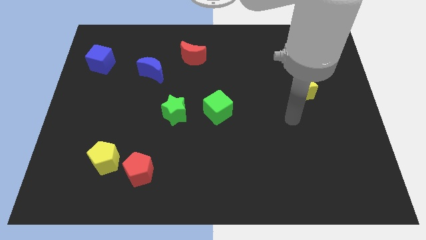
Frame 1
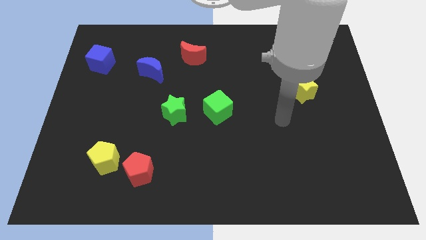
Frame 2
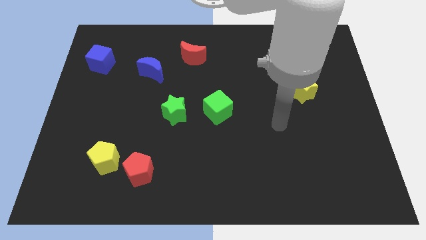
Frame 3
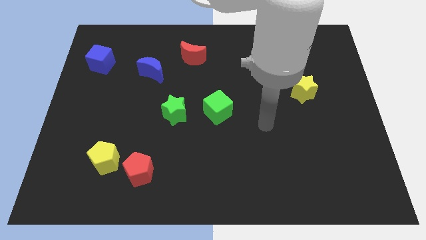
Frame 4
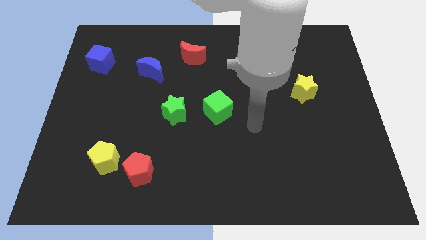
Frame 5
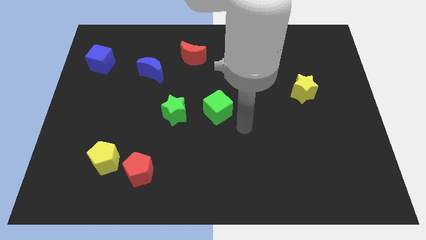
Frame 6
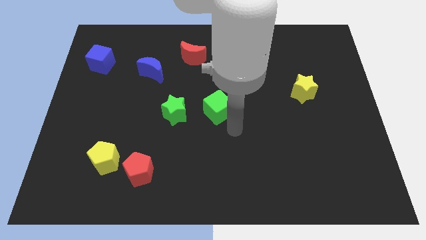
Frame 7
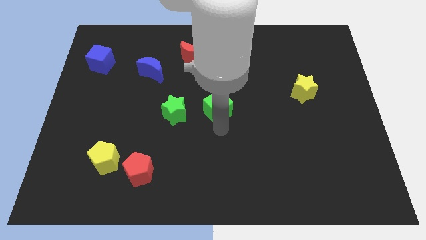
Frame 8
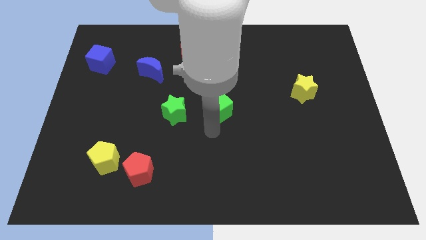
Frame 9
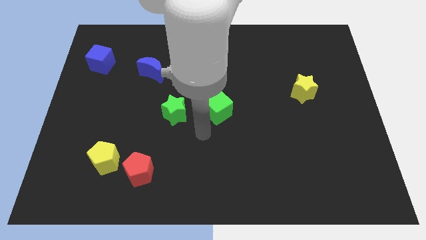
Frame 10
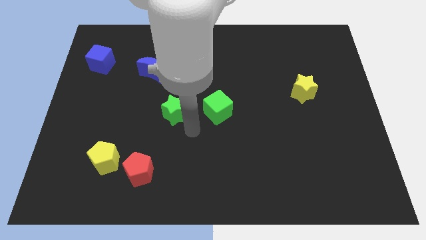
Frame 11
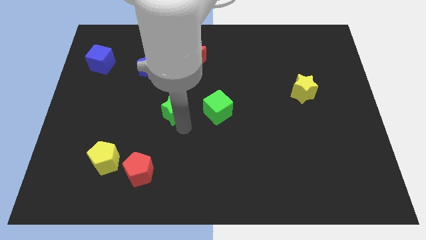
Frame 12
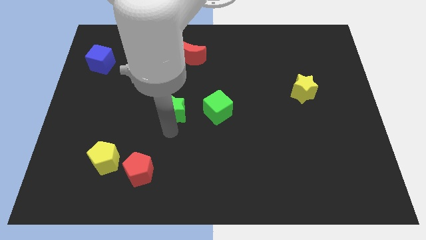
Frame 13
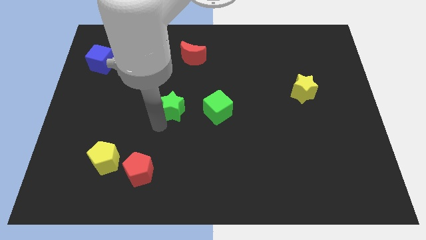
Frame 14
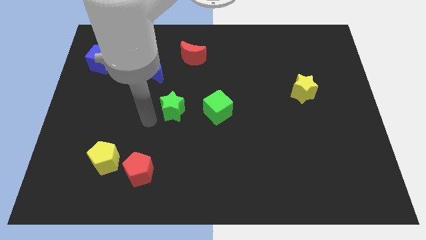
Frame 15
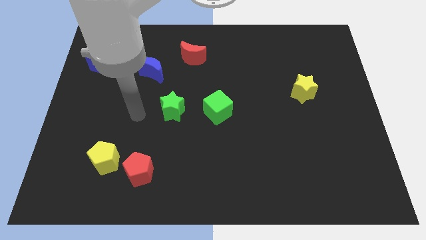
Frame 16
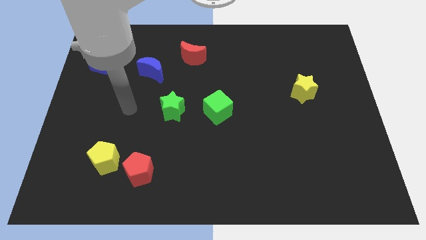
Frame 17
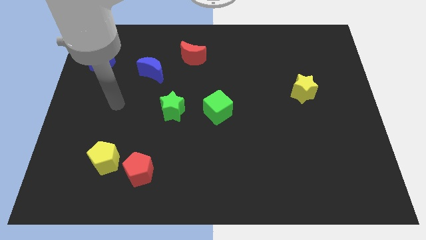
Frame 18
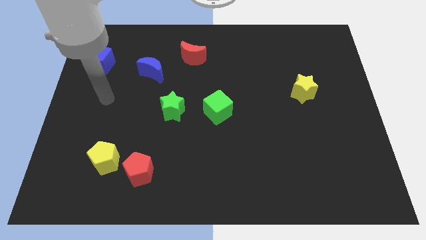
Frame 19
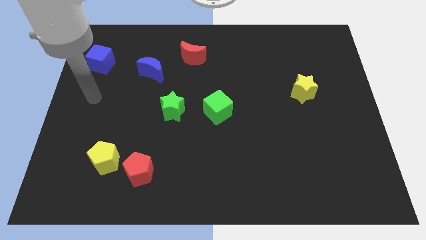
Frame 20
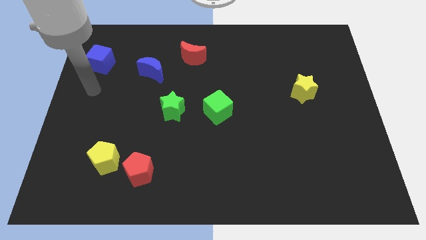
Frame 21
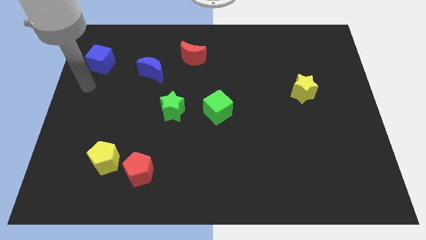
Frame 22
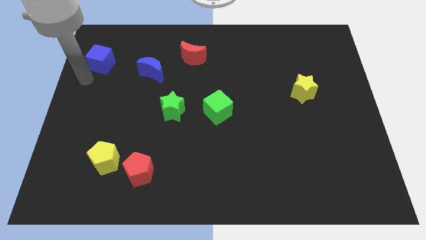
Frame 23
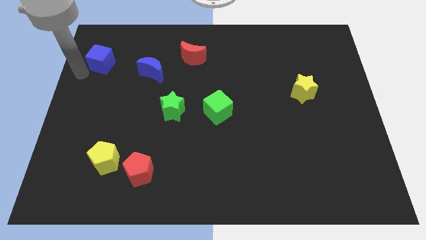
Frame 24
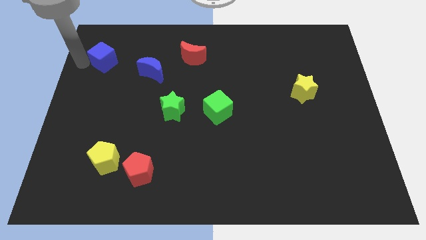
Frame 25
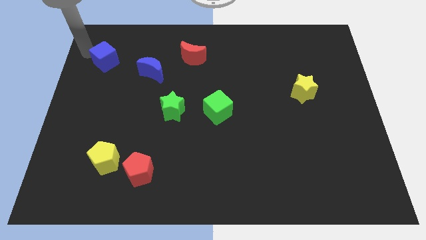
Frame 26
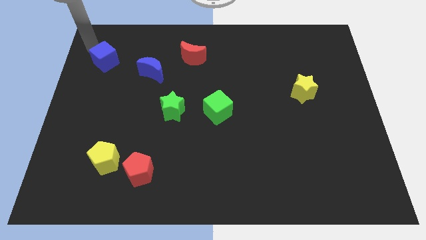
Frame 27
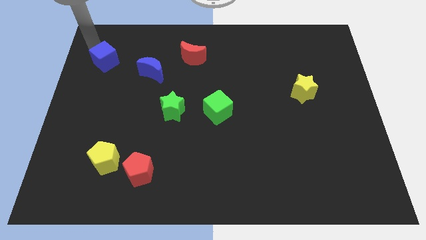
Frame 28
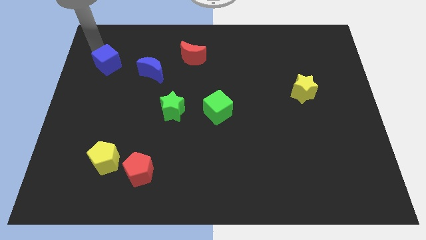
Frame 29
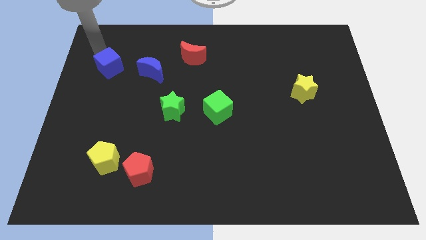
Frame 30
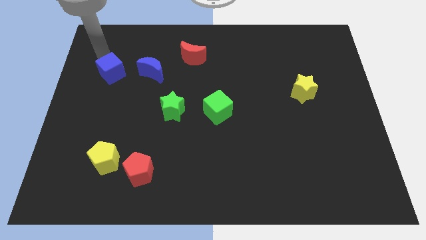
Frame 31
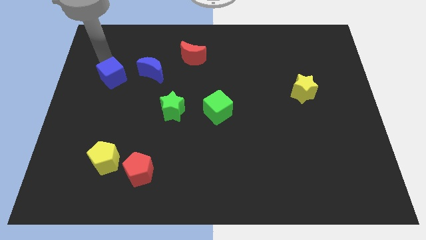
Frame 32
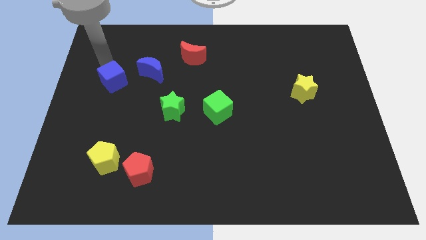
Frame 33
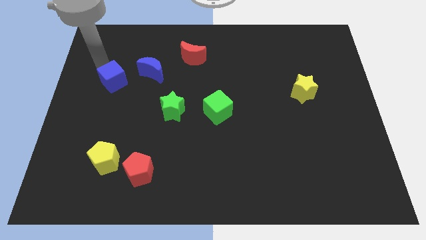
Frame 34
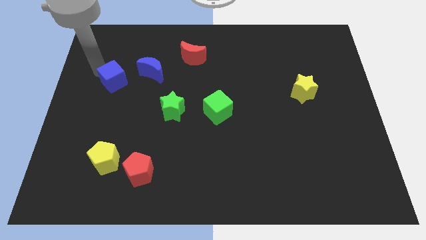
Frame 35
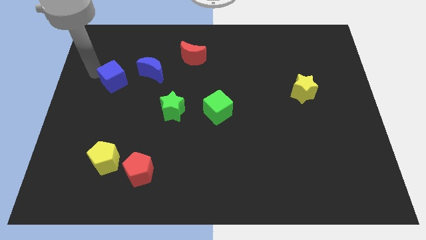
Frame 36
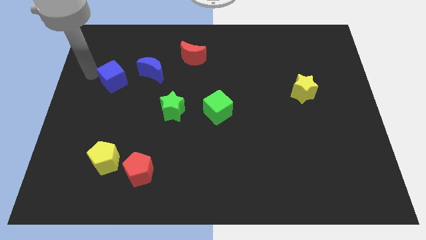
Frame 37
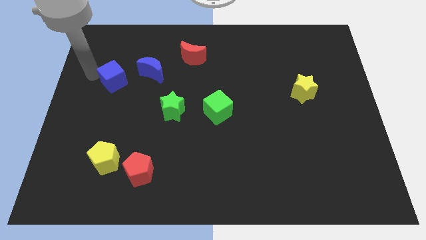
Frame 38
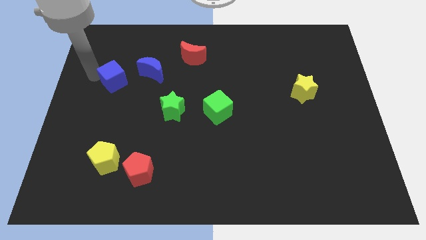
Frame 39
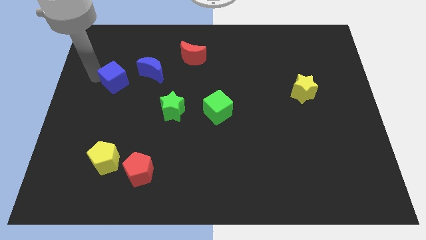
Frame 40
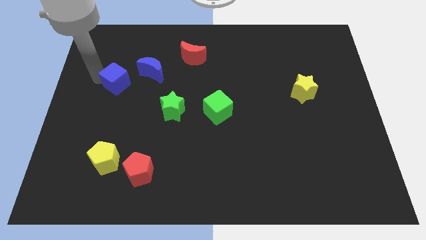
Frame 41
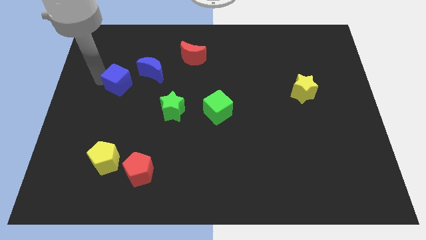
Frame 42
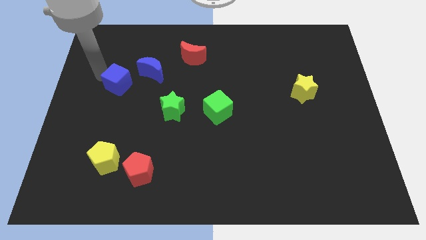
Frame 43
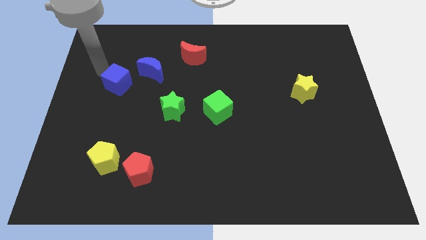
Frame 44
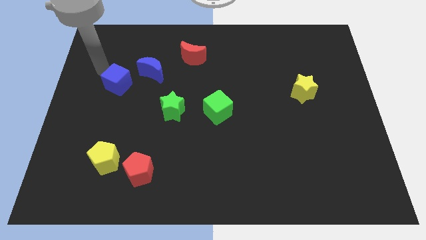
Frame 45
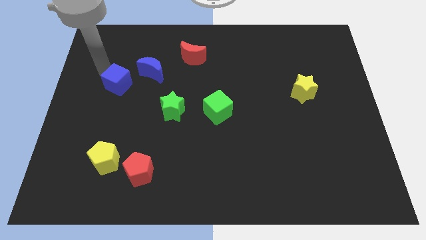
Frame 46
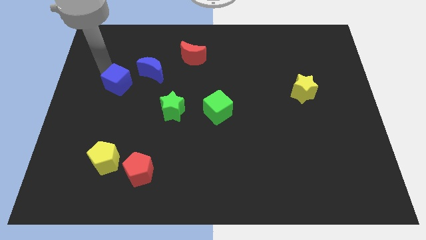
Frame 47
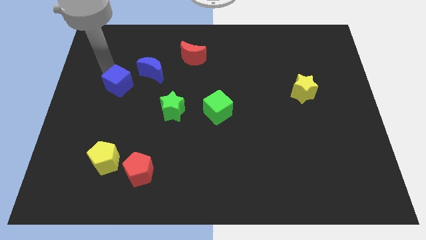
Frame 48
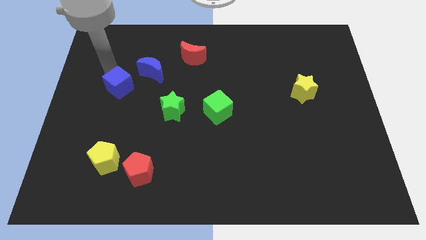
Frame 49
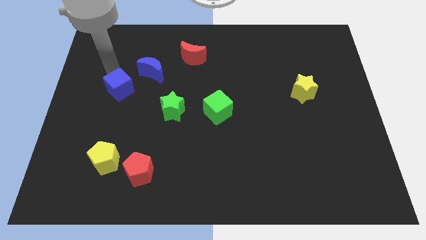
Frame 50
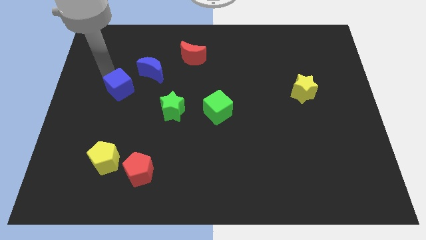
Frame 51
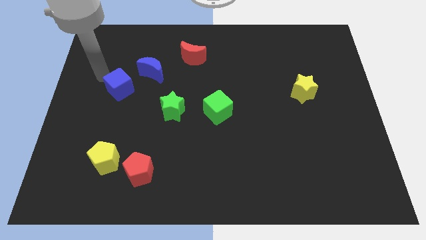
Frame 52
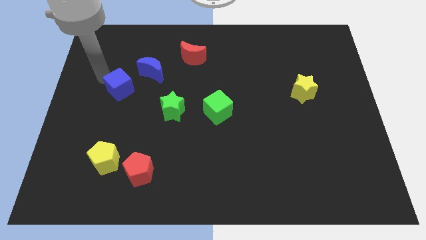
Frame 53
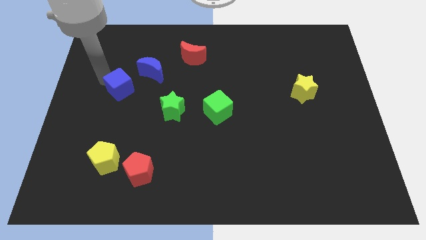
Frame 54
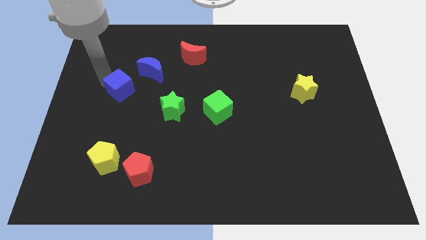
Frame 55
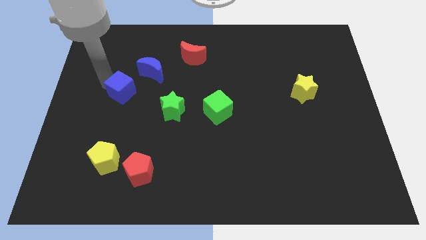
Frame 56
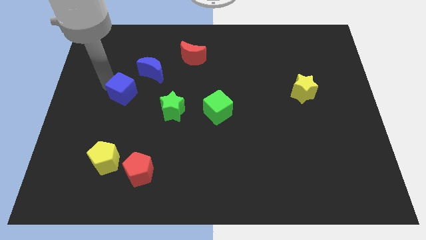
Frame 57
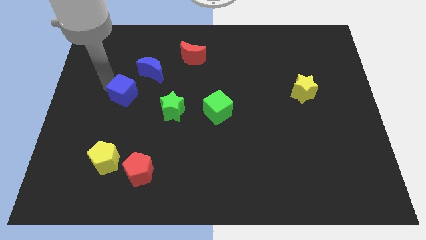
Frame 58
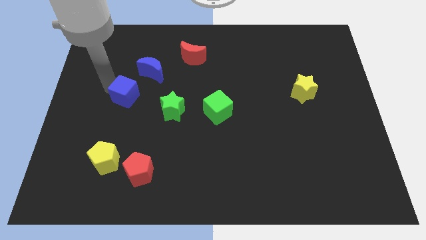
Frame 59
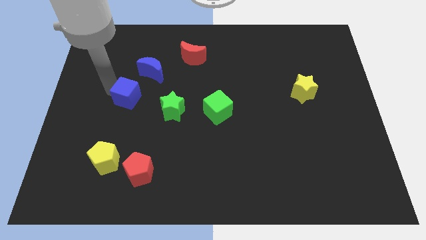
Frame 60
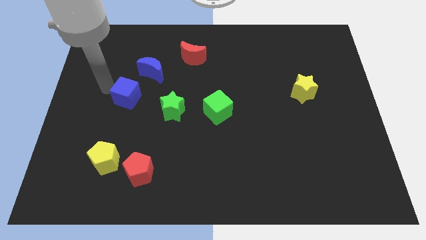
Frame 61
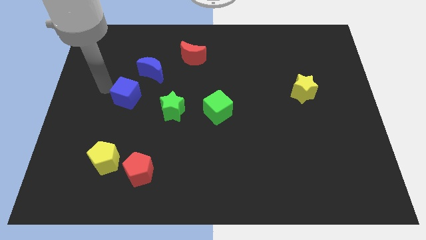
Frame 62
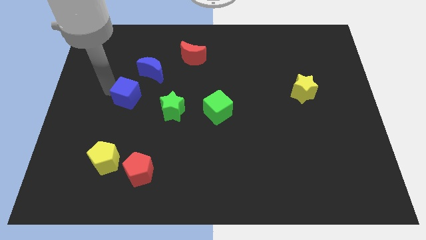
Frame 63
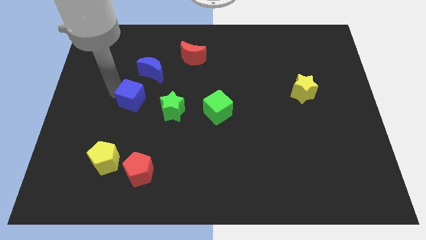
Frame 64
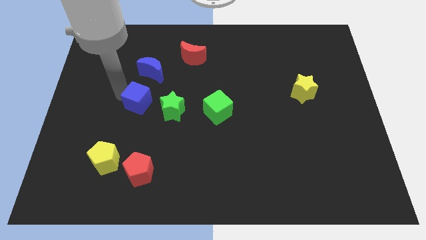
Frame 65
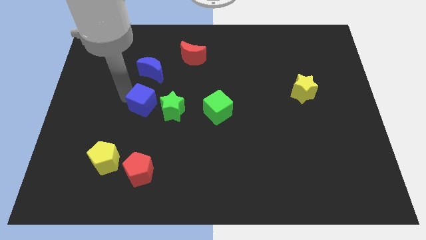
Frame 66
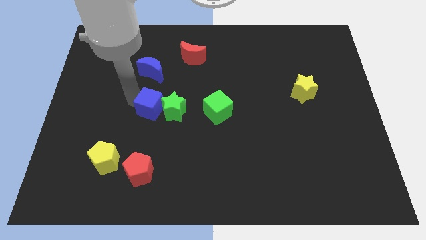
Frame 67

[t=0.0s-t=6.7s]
slide the blue cube just left of the green cube

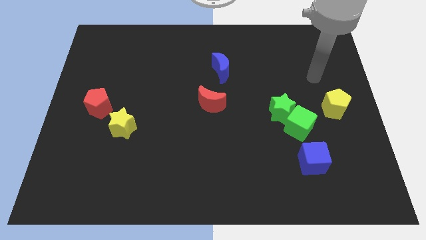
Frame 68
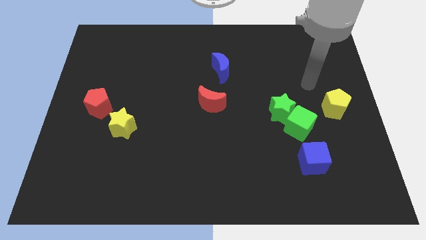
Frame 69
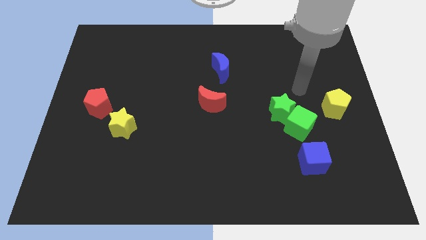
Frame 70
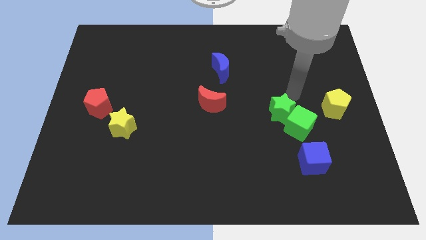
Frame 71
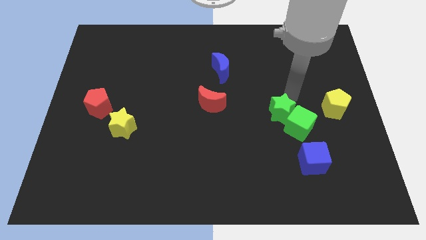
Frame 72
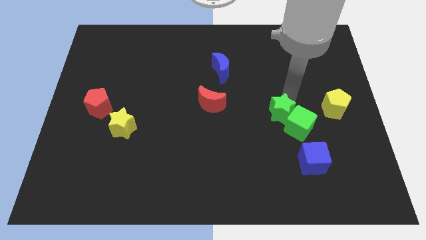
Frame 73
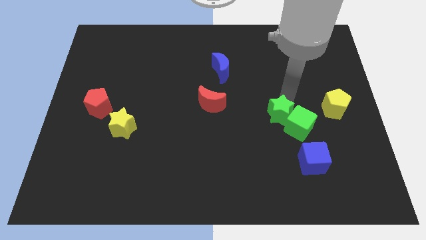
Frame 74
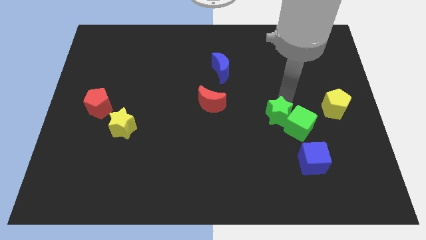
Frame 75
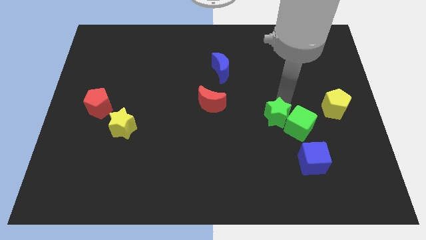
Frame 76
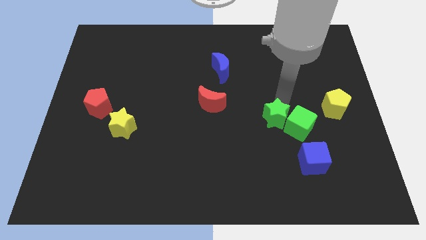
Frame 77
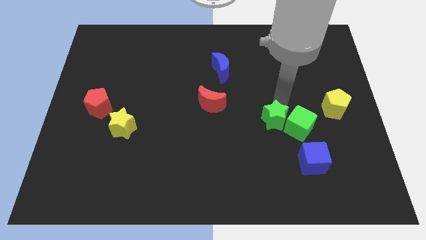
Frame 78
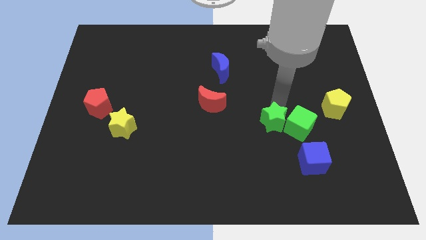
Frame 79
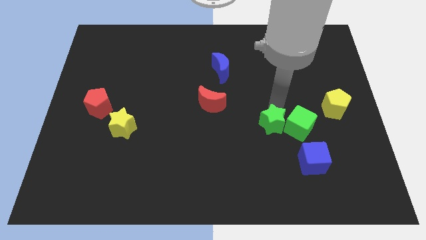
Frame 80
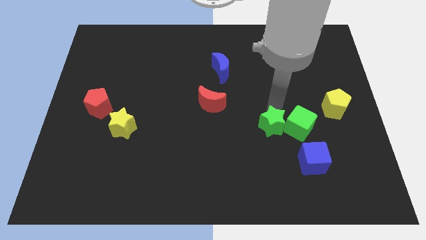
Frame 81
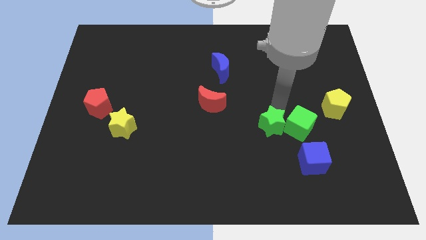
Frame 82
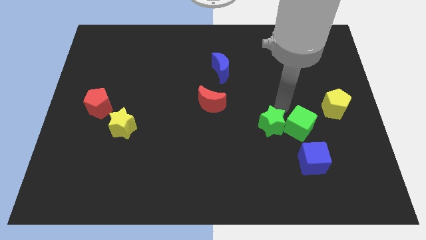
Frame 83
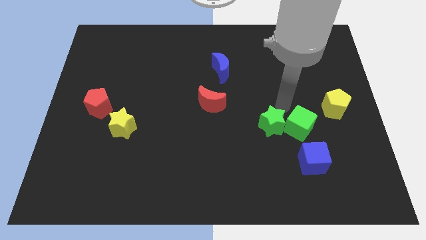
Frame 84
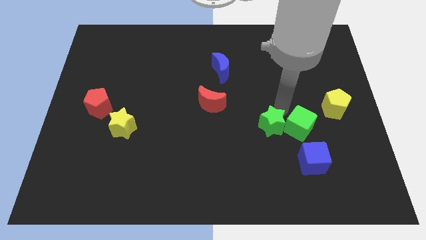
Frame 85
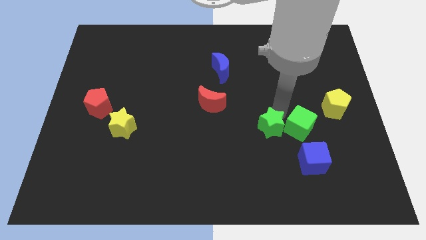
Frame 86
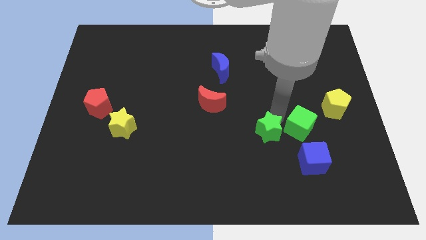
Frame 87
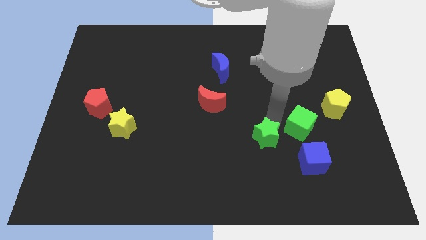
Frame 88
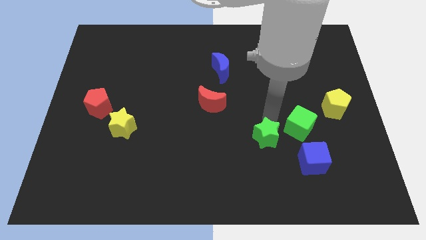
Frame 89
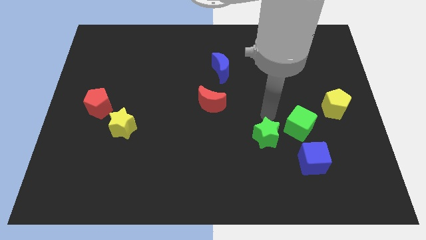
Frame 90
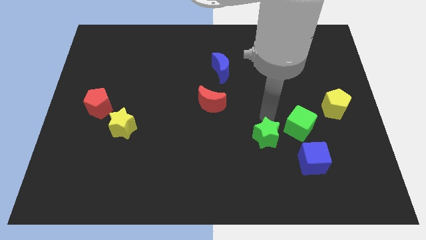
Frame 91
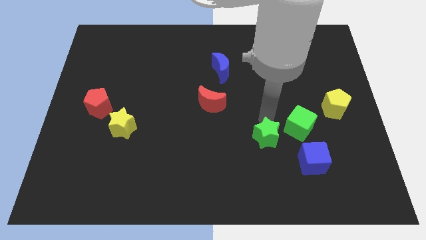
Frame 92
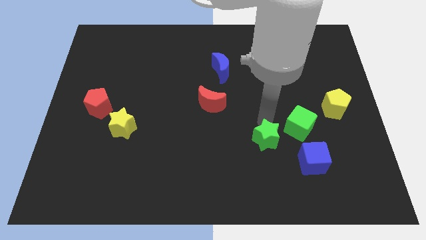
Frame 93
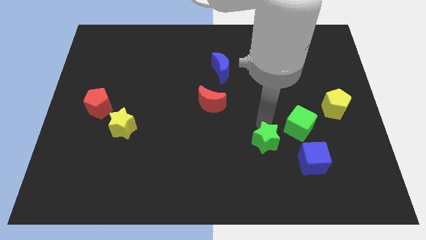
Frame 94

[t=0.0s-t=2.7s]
move the green star left of the blue cube
